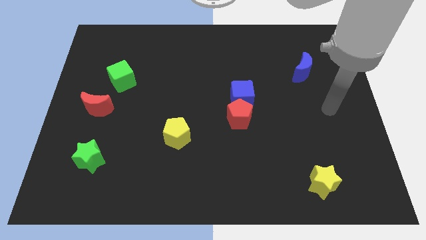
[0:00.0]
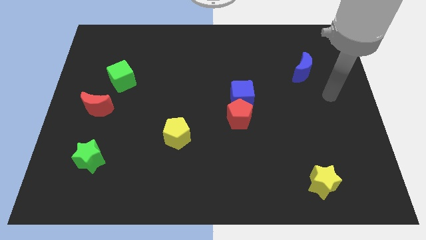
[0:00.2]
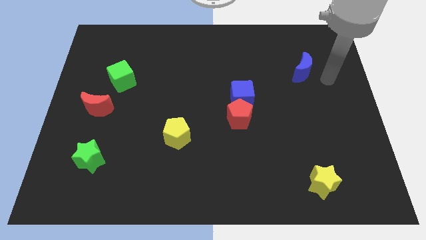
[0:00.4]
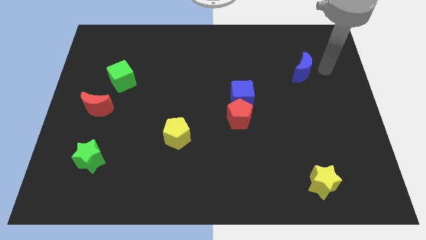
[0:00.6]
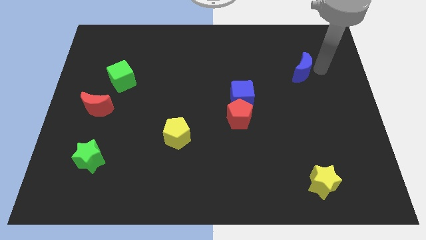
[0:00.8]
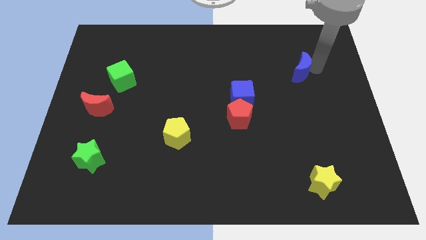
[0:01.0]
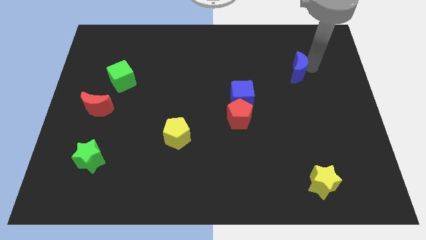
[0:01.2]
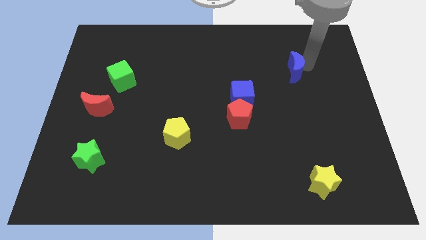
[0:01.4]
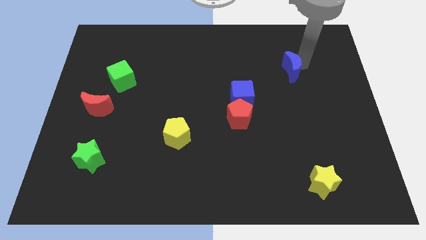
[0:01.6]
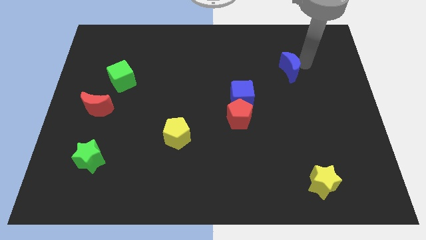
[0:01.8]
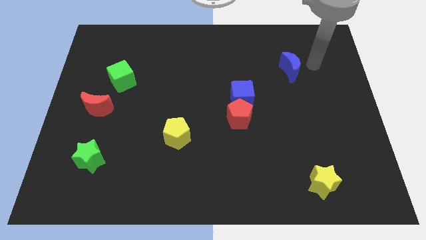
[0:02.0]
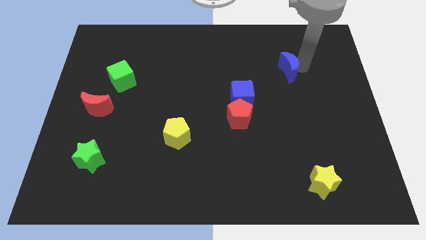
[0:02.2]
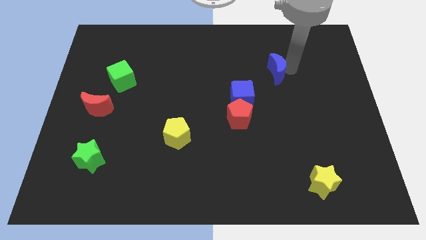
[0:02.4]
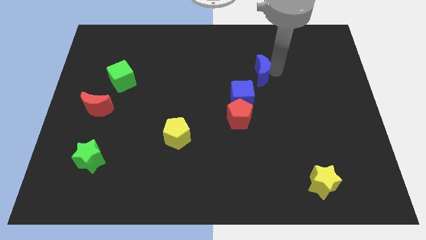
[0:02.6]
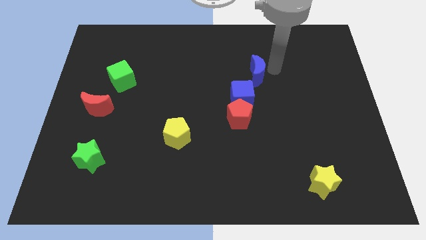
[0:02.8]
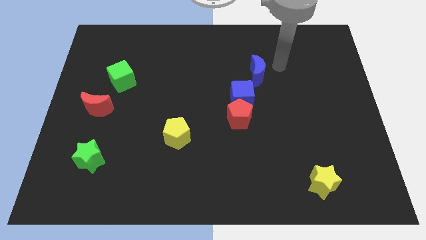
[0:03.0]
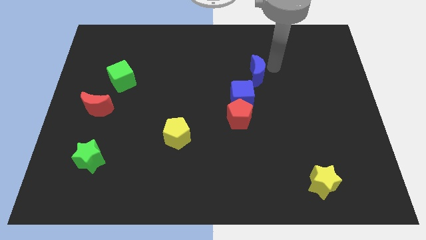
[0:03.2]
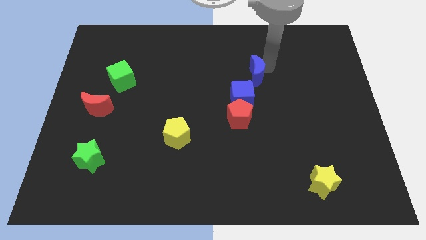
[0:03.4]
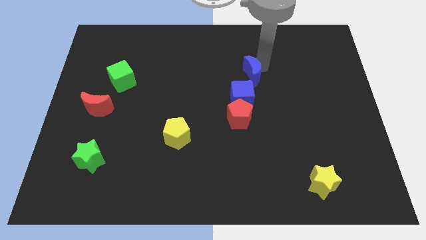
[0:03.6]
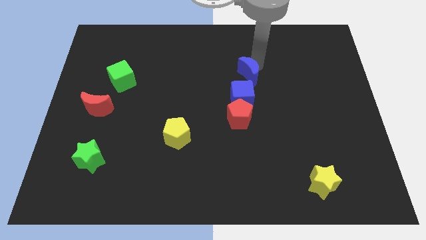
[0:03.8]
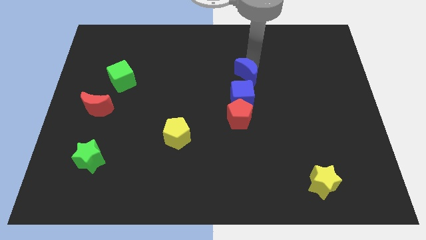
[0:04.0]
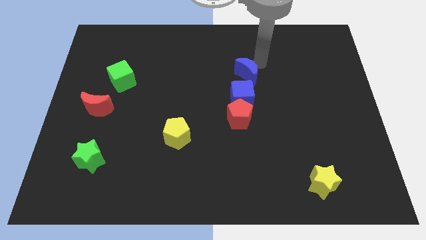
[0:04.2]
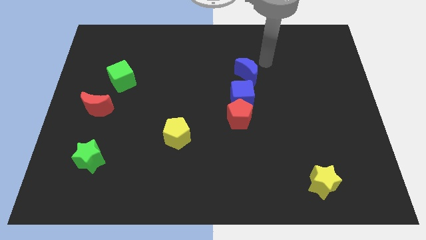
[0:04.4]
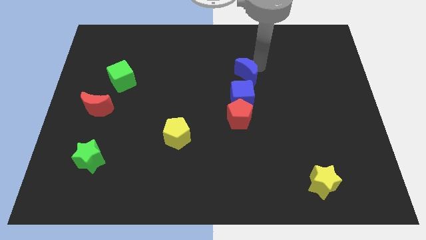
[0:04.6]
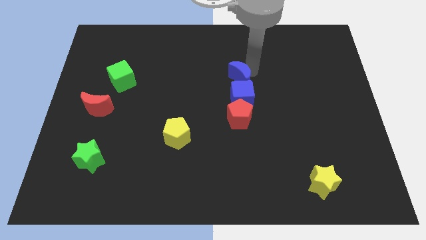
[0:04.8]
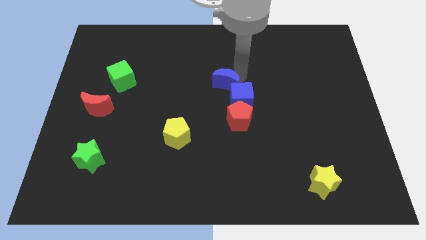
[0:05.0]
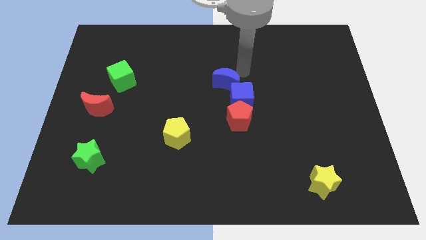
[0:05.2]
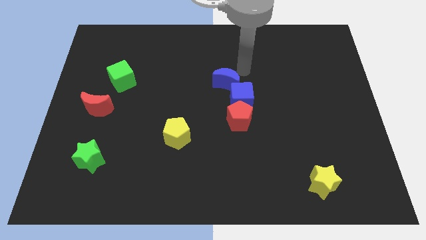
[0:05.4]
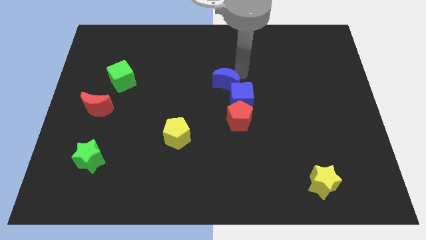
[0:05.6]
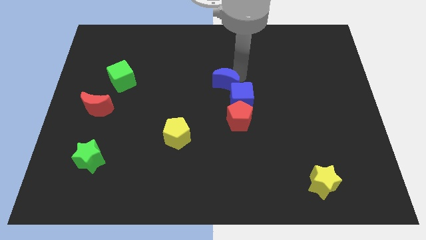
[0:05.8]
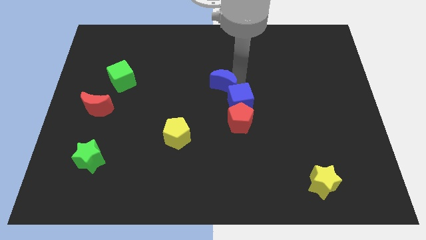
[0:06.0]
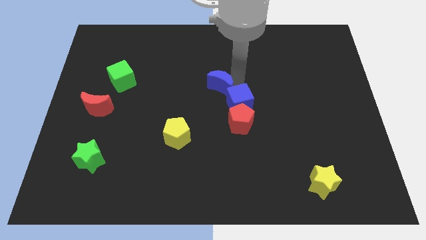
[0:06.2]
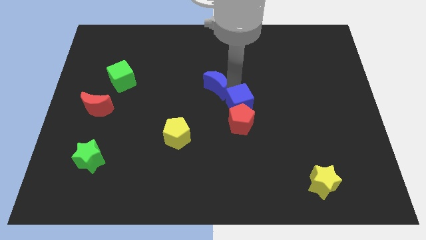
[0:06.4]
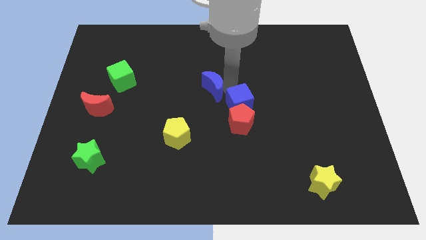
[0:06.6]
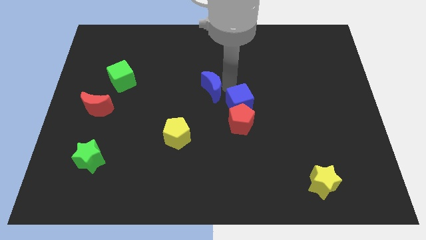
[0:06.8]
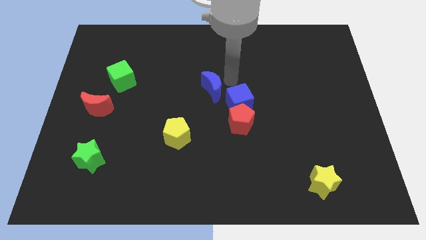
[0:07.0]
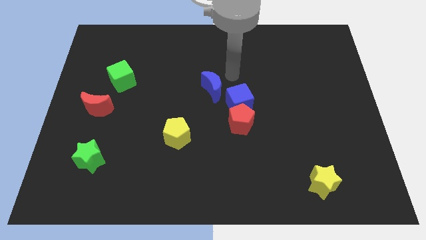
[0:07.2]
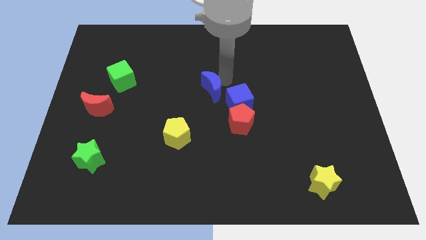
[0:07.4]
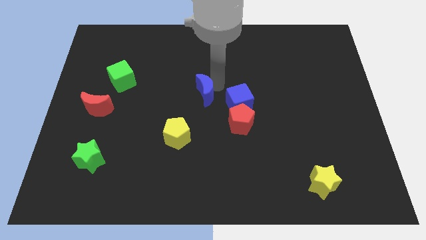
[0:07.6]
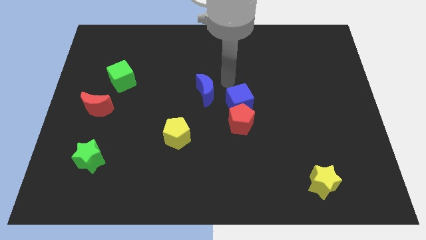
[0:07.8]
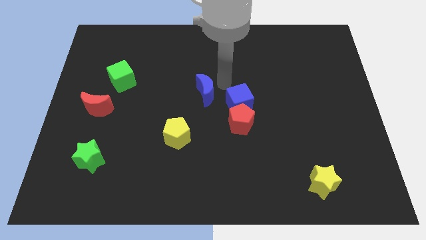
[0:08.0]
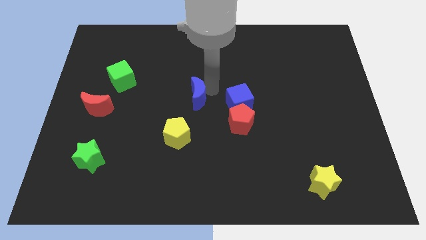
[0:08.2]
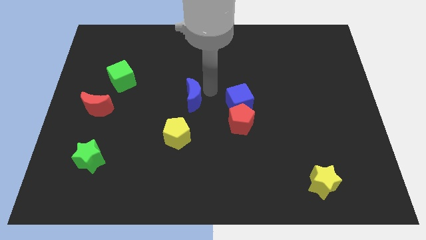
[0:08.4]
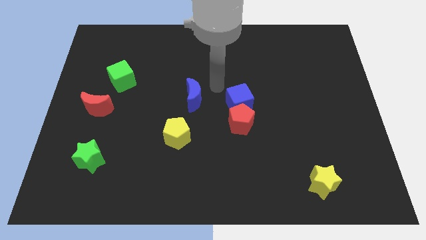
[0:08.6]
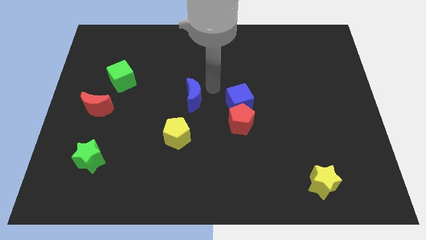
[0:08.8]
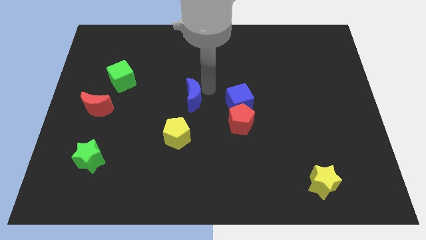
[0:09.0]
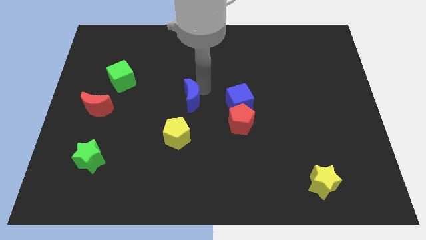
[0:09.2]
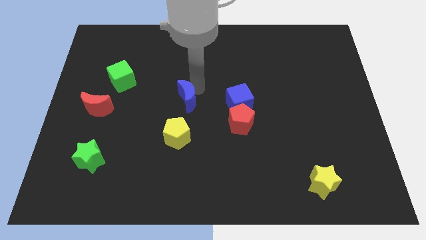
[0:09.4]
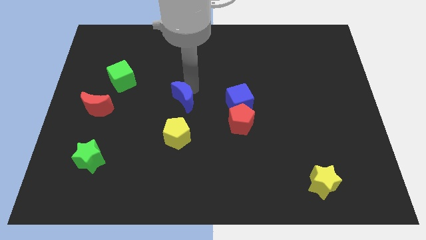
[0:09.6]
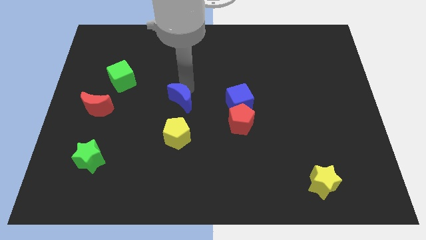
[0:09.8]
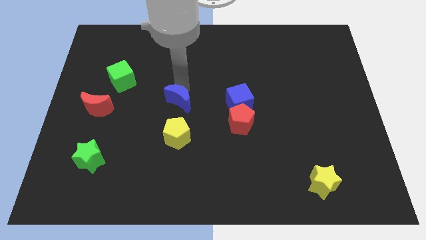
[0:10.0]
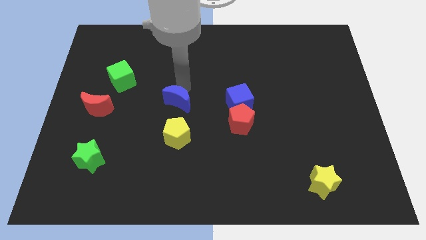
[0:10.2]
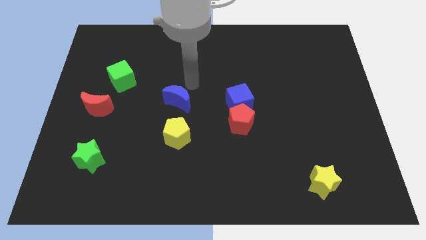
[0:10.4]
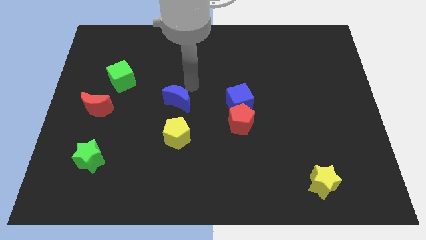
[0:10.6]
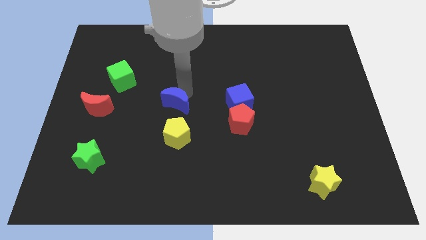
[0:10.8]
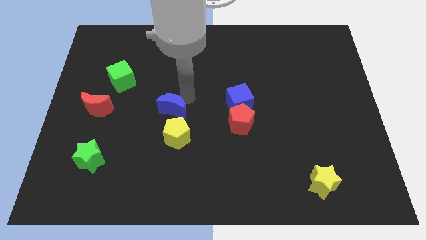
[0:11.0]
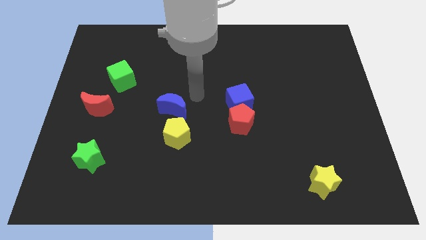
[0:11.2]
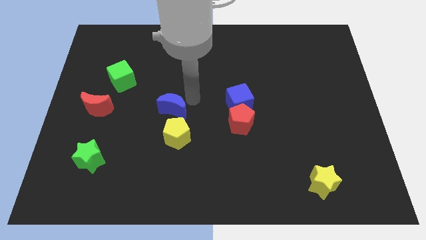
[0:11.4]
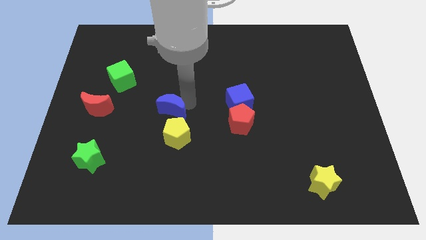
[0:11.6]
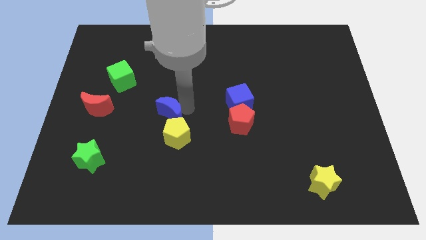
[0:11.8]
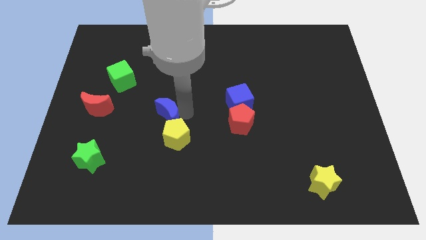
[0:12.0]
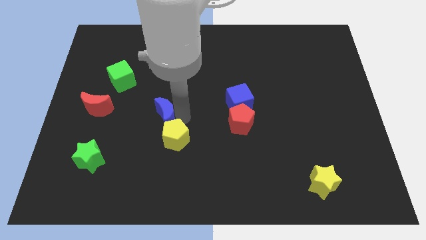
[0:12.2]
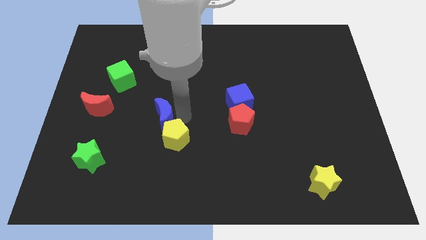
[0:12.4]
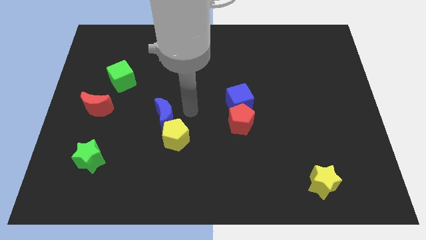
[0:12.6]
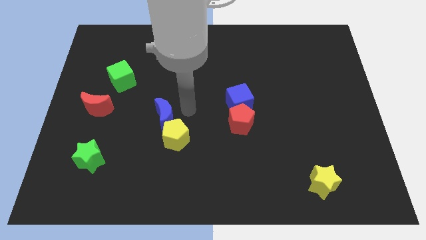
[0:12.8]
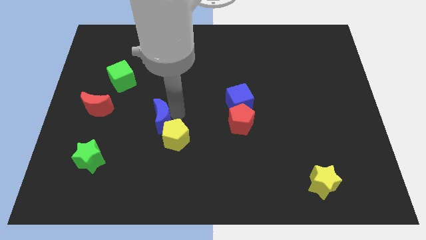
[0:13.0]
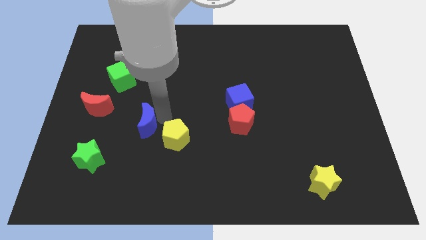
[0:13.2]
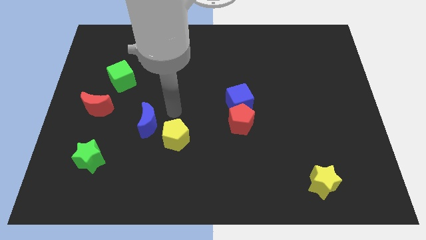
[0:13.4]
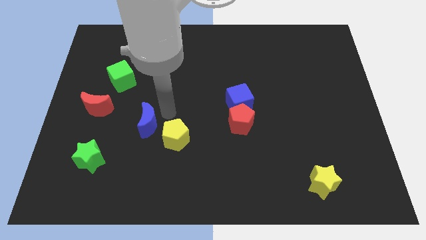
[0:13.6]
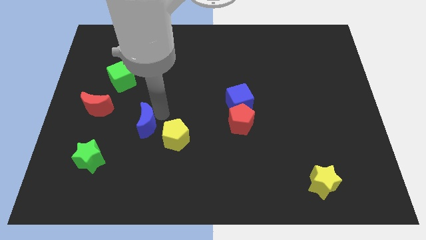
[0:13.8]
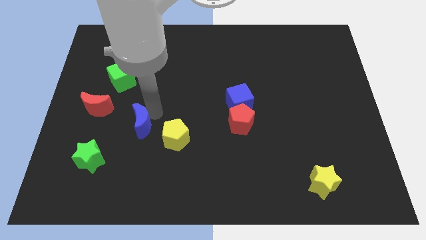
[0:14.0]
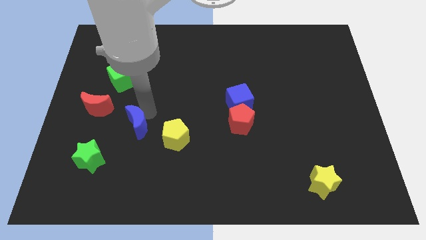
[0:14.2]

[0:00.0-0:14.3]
push the blue moon to the top right side of the green star
